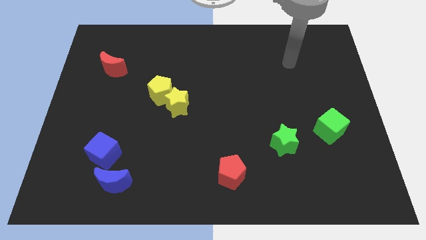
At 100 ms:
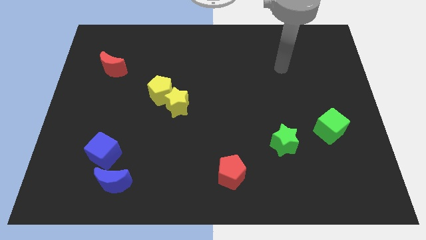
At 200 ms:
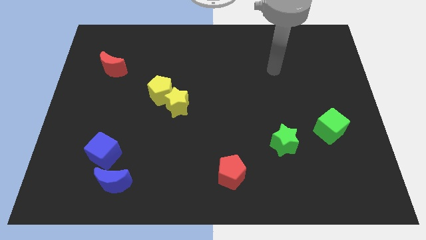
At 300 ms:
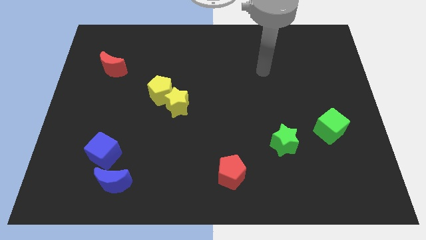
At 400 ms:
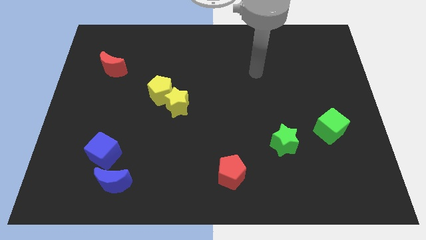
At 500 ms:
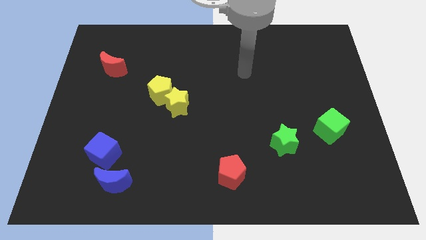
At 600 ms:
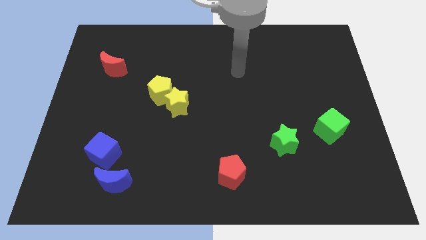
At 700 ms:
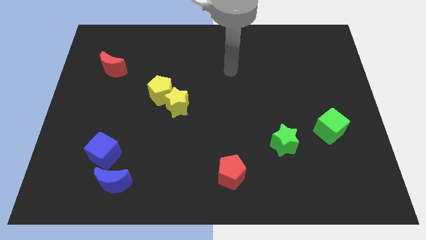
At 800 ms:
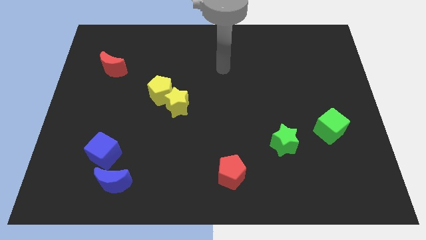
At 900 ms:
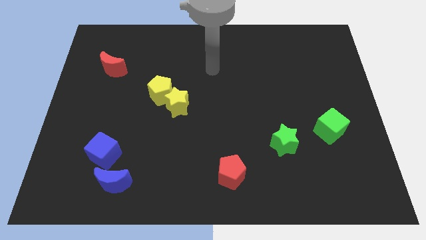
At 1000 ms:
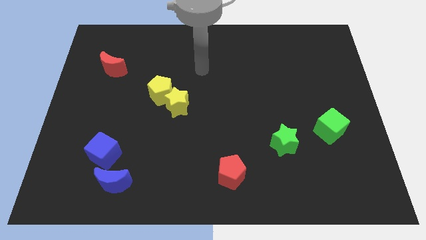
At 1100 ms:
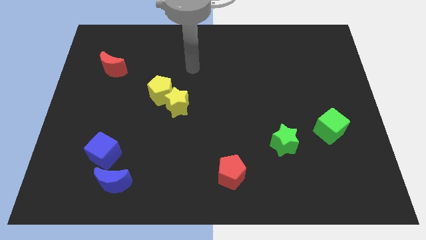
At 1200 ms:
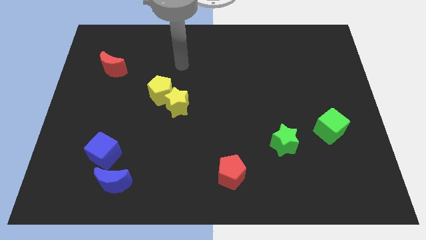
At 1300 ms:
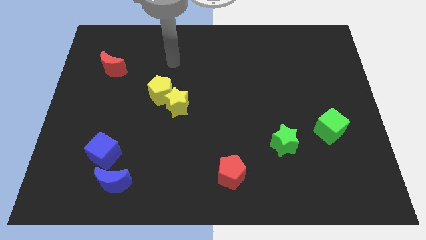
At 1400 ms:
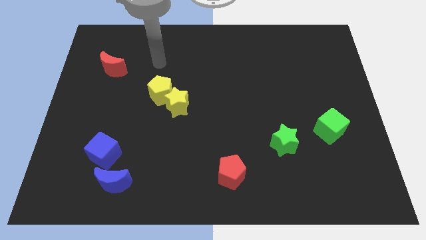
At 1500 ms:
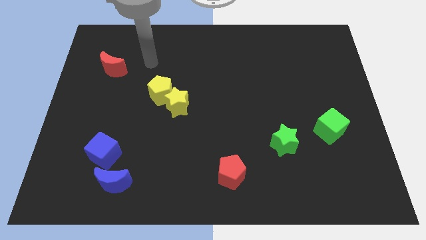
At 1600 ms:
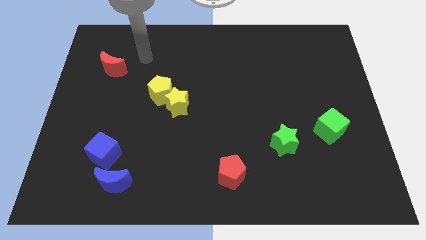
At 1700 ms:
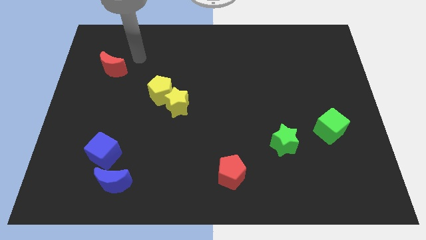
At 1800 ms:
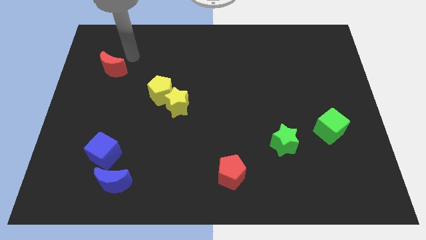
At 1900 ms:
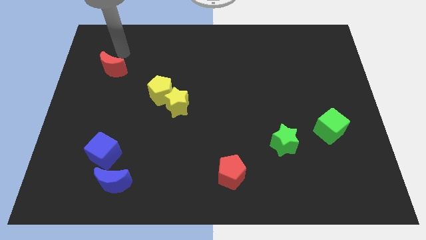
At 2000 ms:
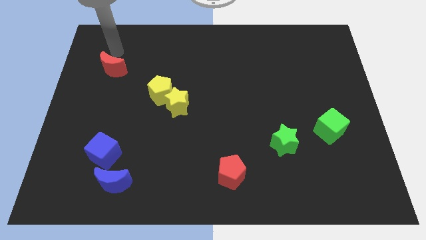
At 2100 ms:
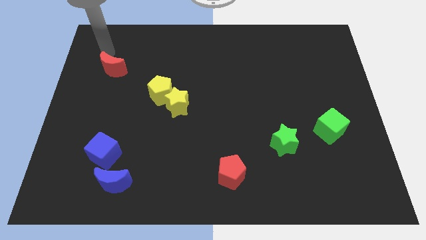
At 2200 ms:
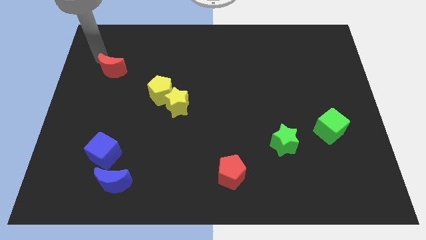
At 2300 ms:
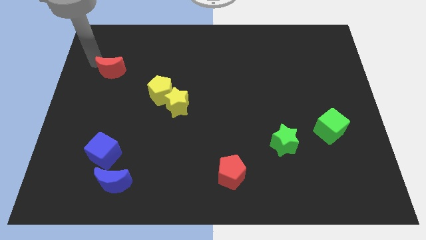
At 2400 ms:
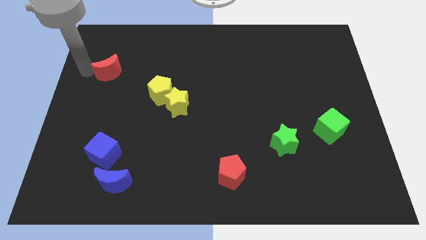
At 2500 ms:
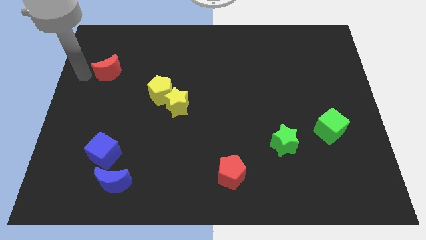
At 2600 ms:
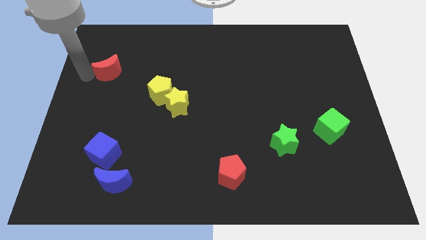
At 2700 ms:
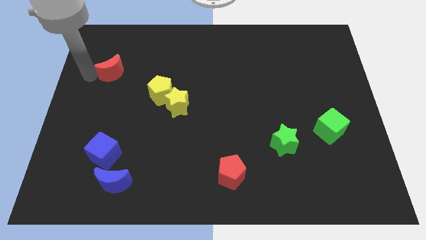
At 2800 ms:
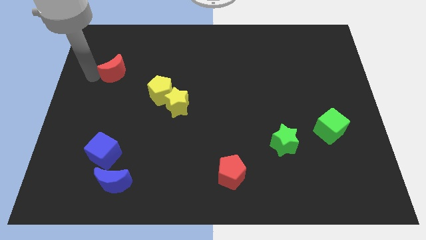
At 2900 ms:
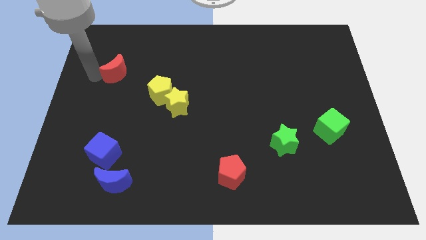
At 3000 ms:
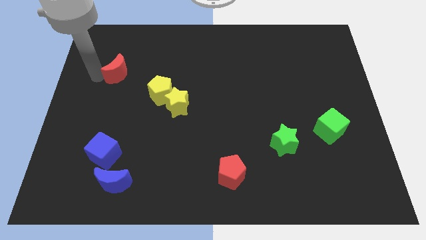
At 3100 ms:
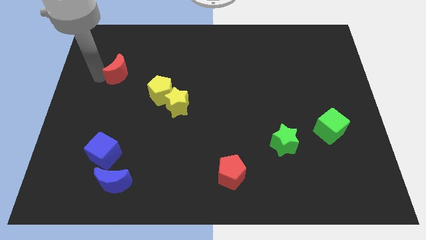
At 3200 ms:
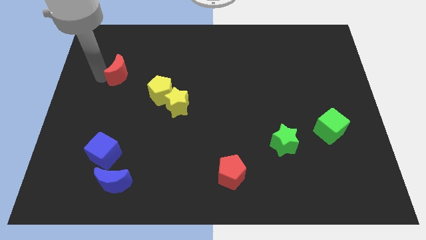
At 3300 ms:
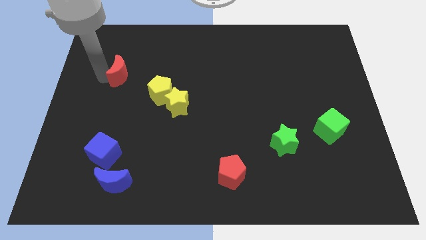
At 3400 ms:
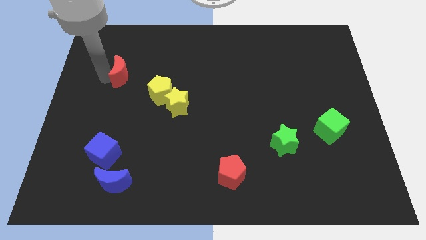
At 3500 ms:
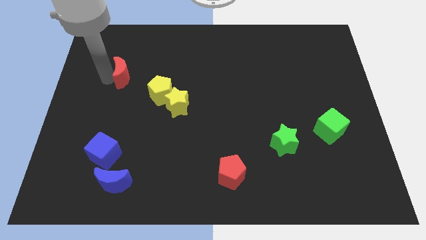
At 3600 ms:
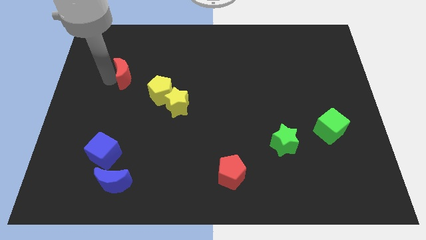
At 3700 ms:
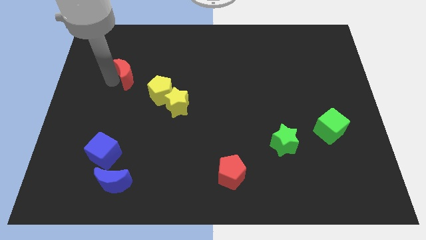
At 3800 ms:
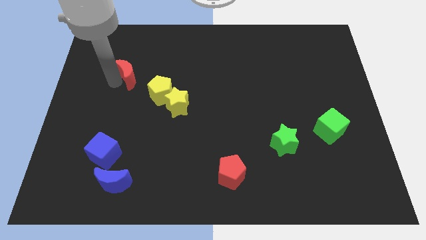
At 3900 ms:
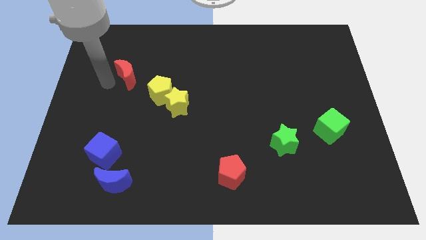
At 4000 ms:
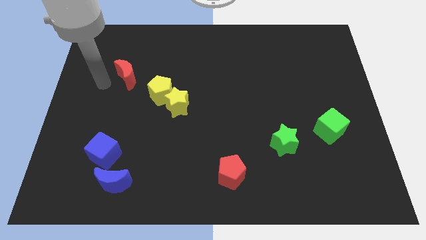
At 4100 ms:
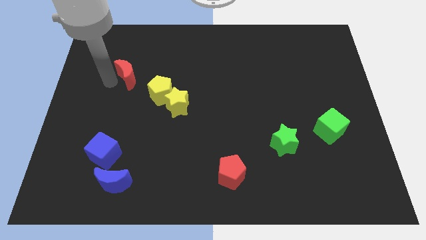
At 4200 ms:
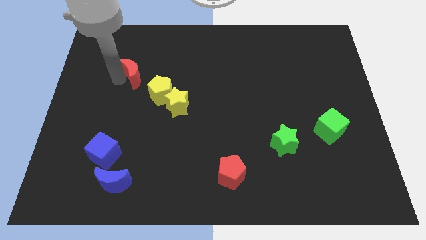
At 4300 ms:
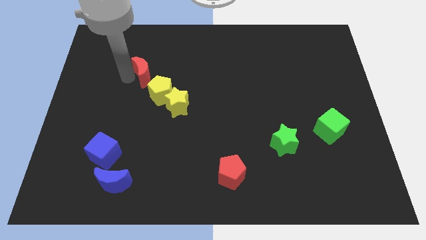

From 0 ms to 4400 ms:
push the red moon right a little bit

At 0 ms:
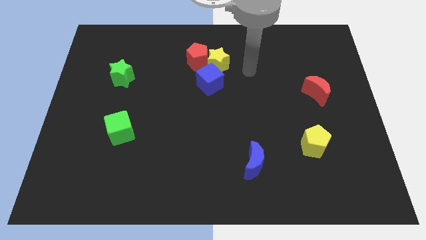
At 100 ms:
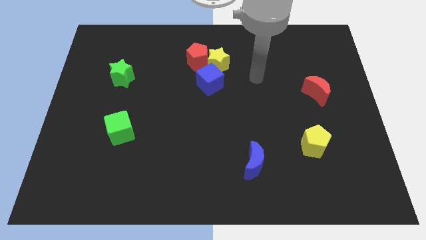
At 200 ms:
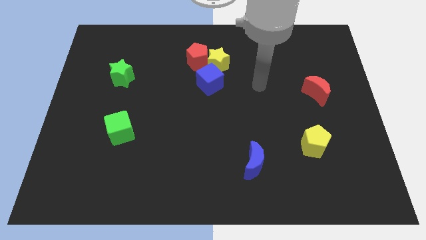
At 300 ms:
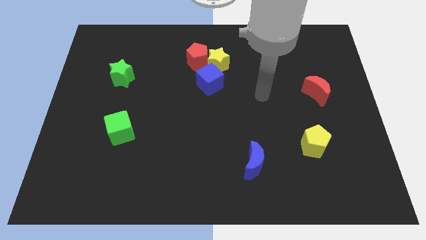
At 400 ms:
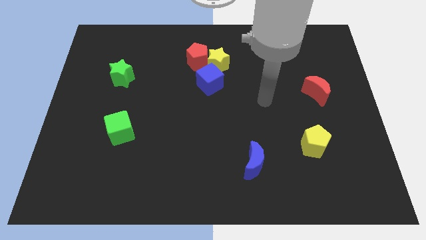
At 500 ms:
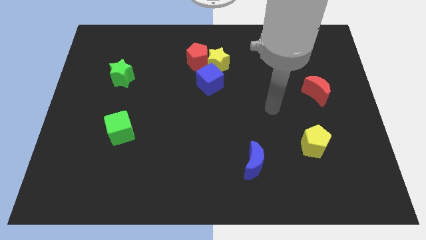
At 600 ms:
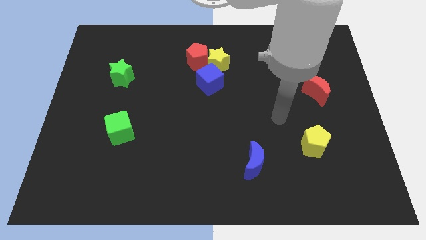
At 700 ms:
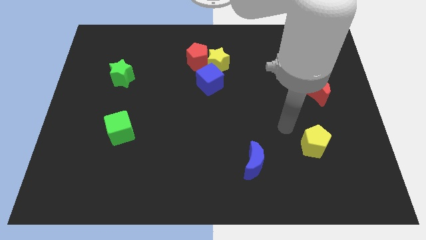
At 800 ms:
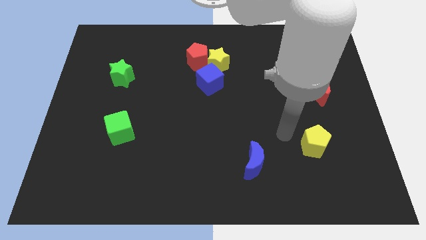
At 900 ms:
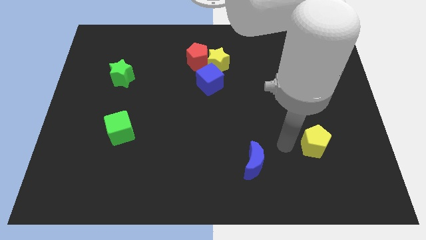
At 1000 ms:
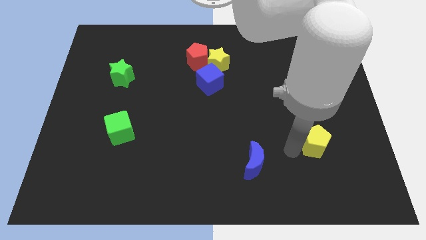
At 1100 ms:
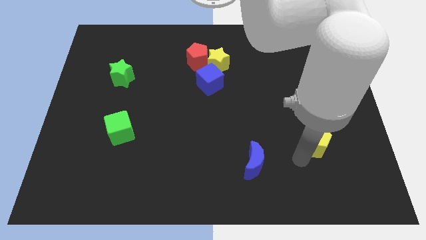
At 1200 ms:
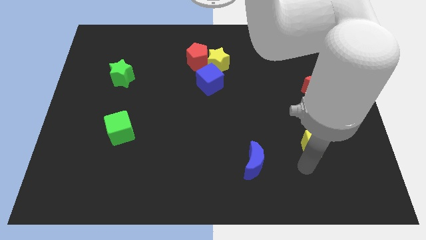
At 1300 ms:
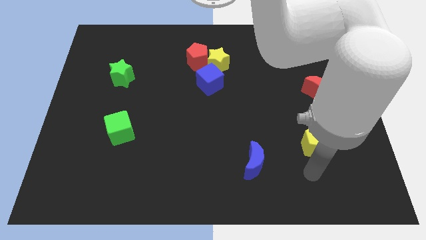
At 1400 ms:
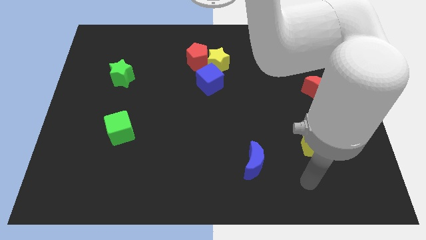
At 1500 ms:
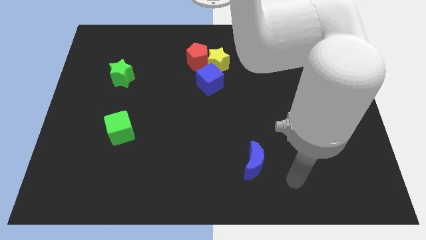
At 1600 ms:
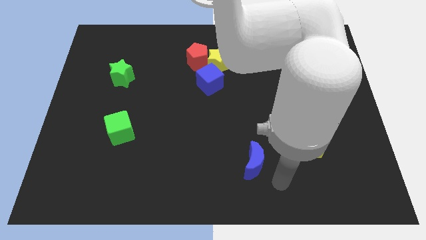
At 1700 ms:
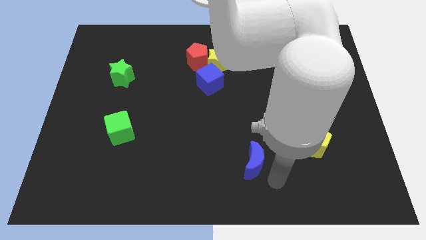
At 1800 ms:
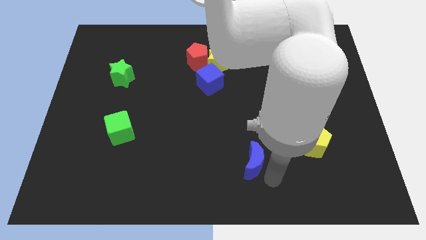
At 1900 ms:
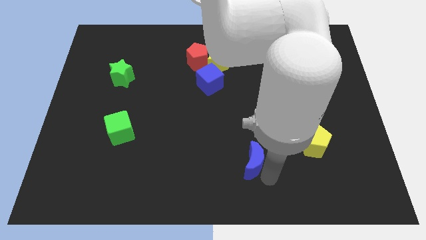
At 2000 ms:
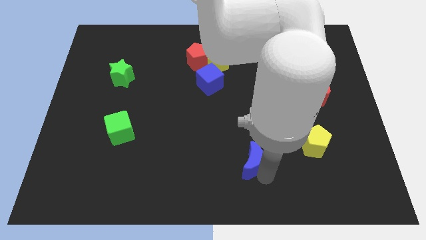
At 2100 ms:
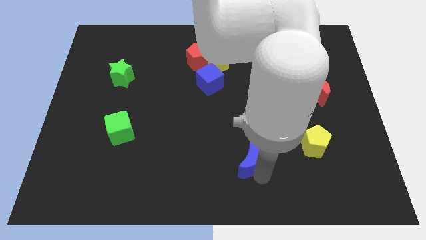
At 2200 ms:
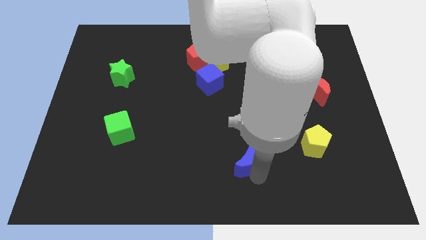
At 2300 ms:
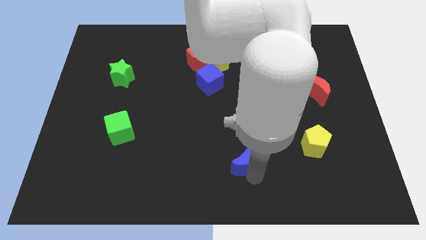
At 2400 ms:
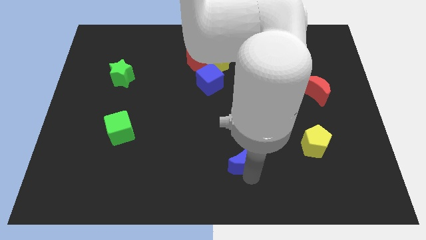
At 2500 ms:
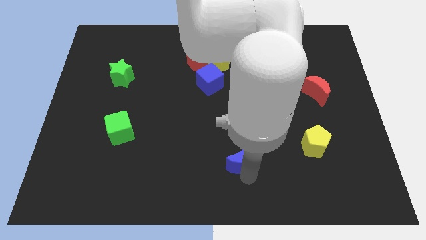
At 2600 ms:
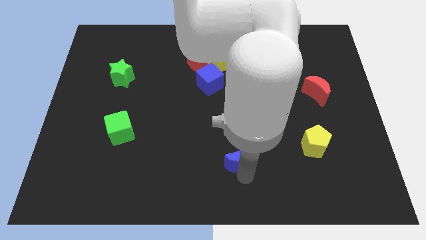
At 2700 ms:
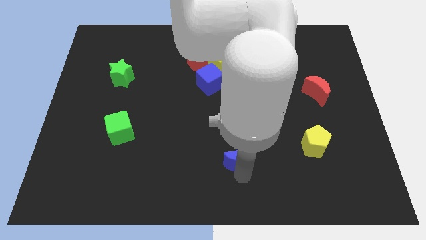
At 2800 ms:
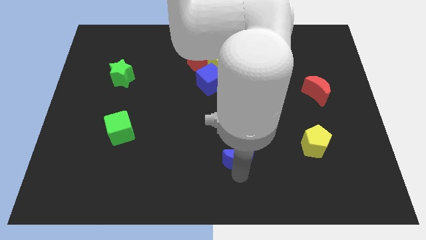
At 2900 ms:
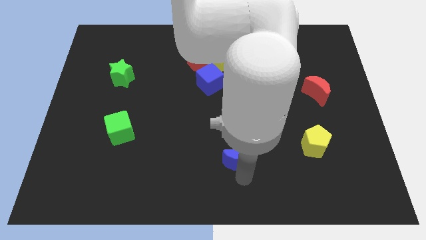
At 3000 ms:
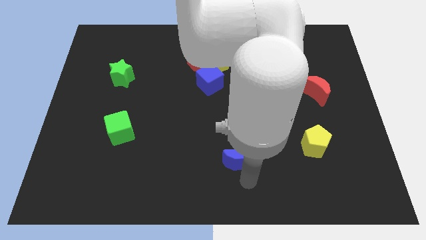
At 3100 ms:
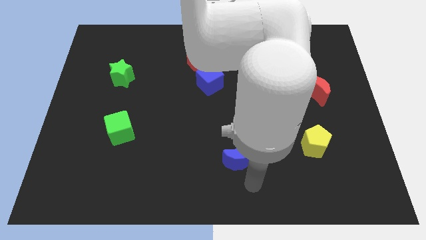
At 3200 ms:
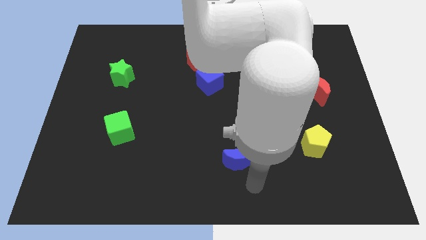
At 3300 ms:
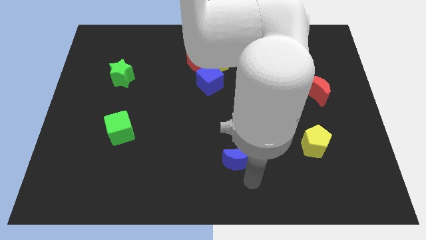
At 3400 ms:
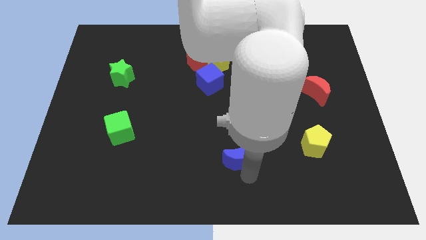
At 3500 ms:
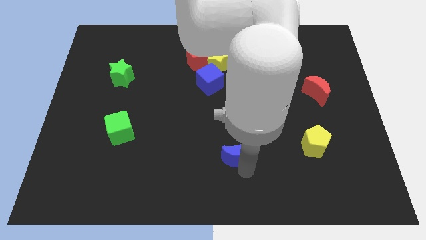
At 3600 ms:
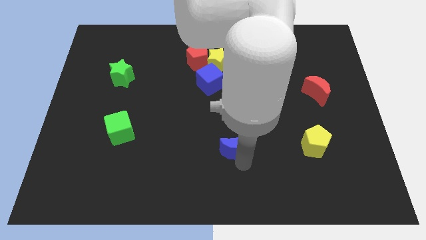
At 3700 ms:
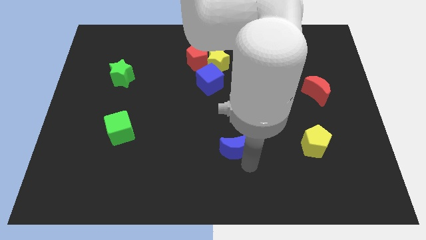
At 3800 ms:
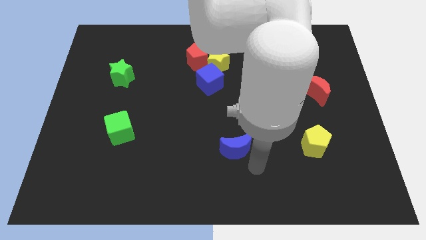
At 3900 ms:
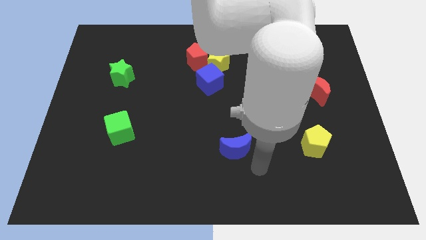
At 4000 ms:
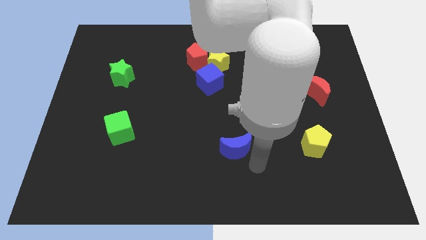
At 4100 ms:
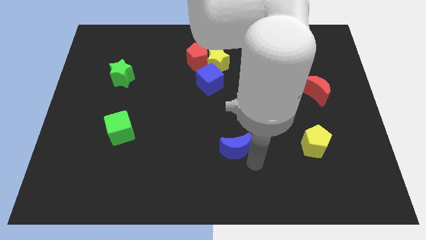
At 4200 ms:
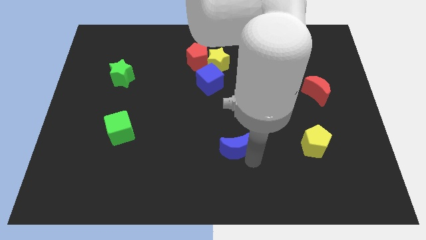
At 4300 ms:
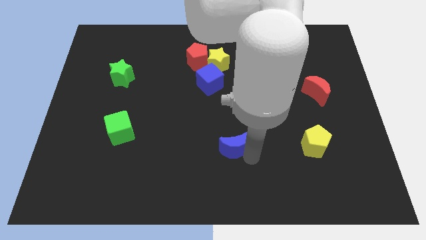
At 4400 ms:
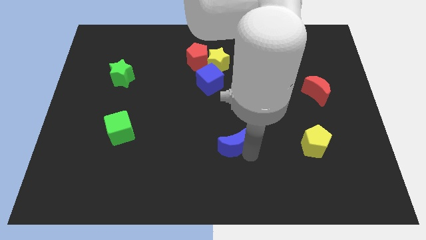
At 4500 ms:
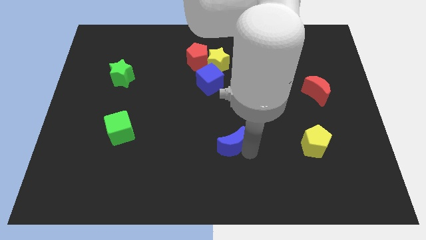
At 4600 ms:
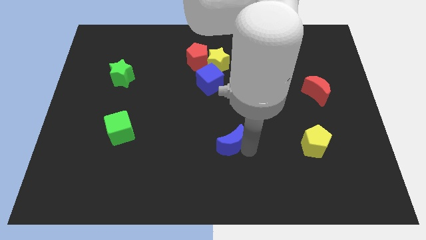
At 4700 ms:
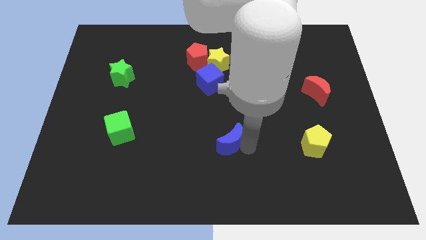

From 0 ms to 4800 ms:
slightly push the blue moon upwards and left
